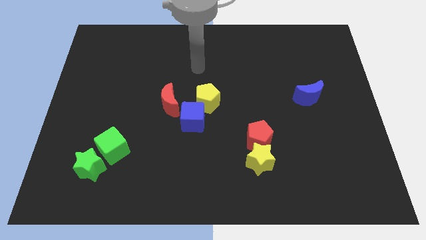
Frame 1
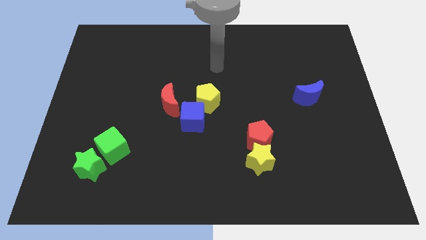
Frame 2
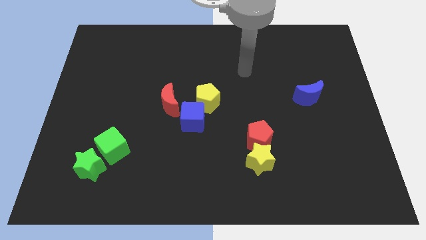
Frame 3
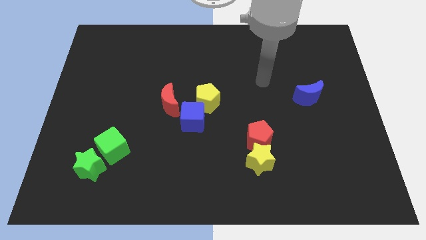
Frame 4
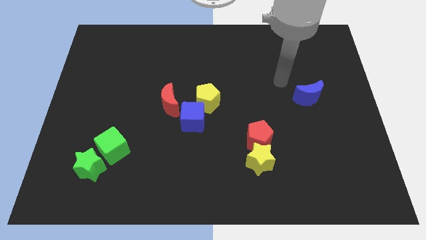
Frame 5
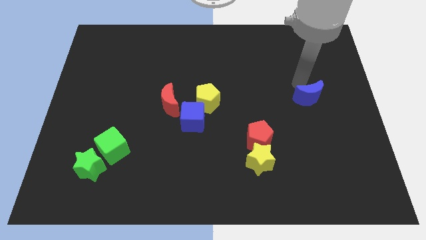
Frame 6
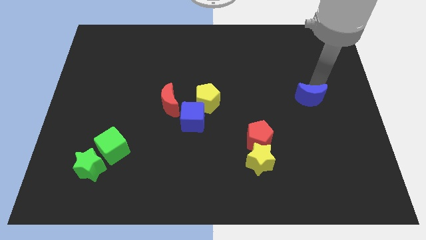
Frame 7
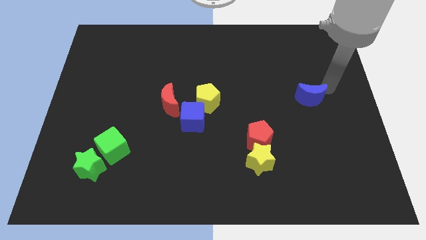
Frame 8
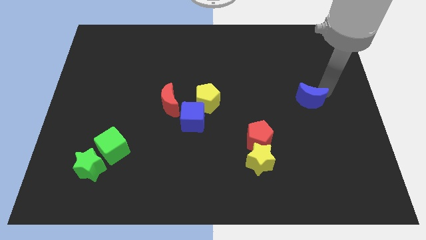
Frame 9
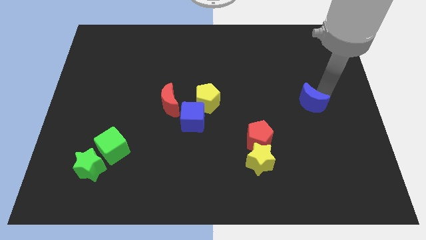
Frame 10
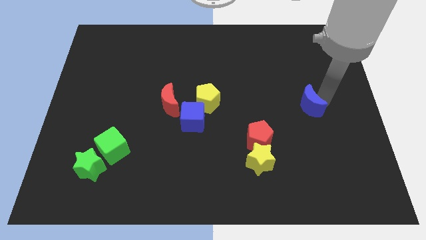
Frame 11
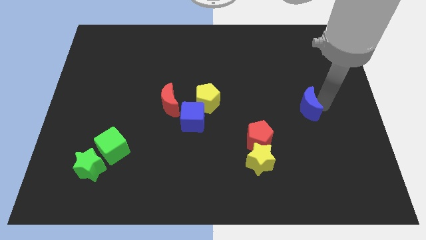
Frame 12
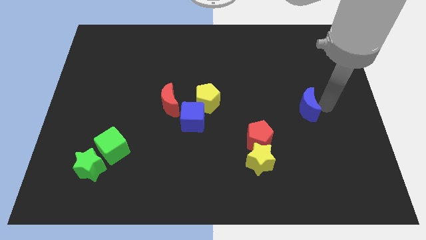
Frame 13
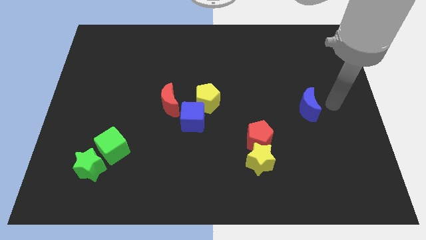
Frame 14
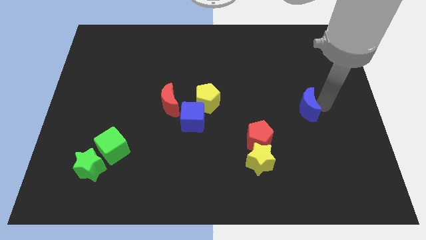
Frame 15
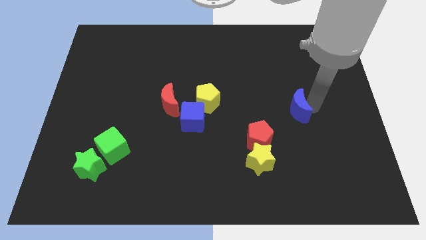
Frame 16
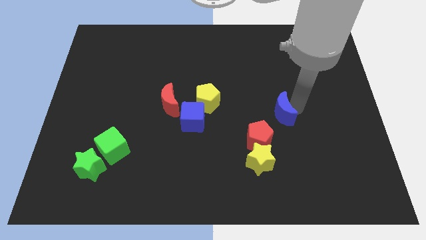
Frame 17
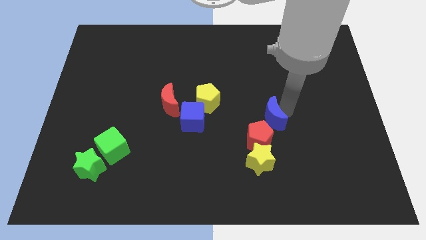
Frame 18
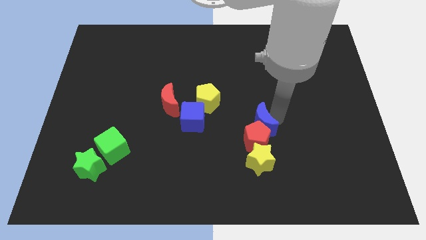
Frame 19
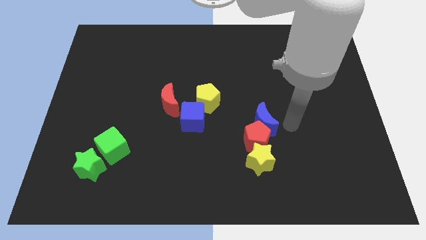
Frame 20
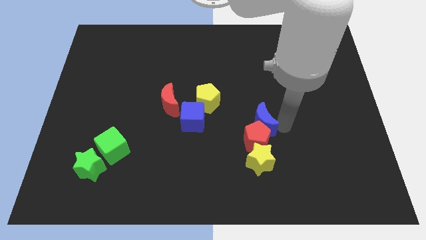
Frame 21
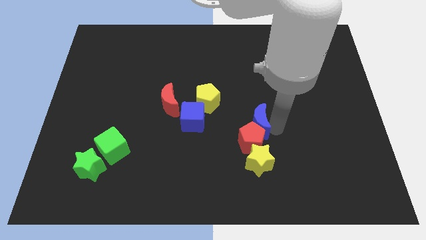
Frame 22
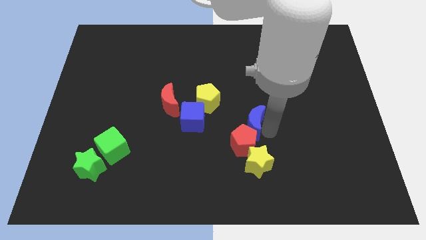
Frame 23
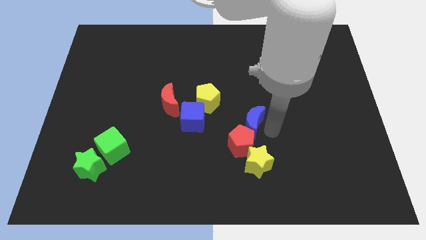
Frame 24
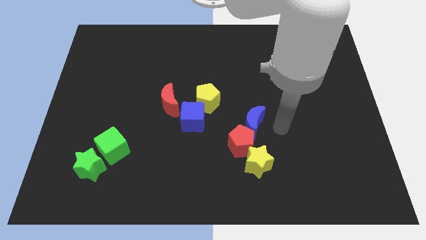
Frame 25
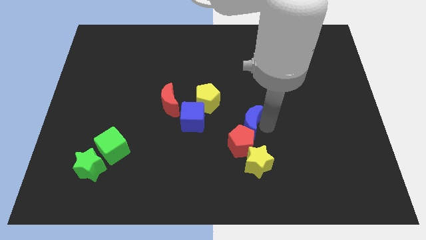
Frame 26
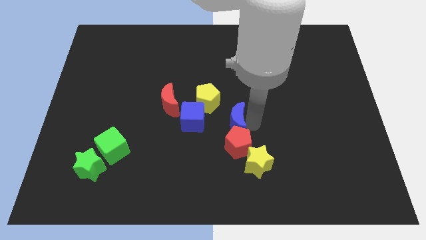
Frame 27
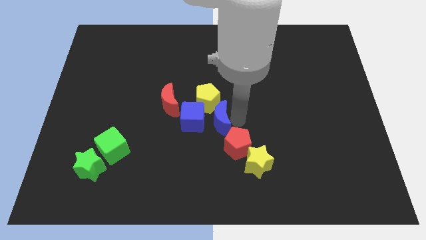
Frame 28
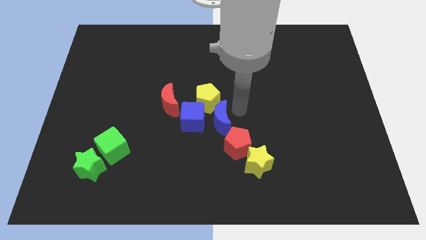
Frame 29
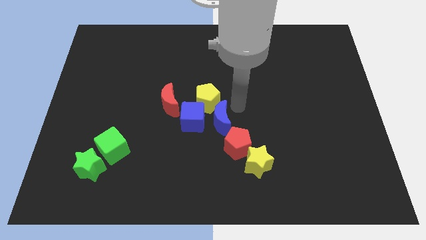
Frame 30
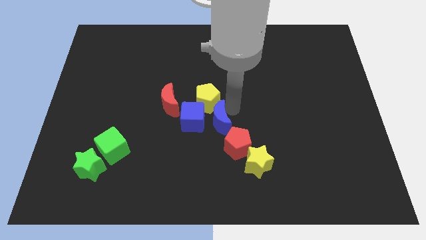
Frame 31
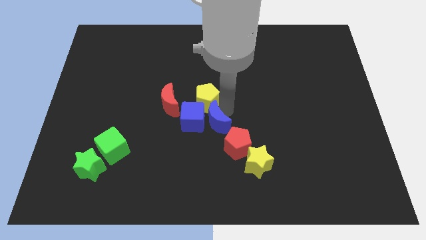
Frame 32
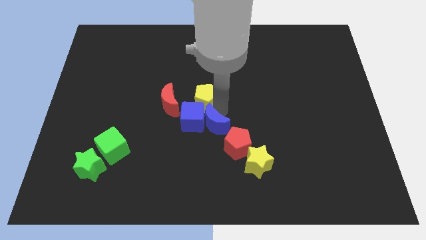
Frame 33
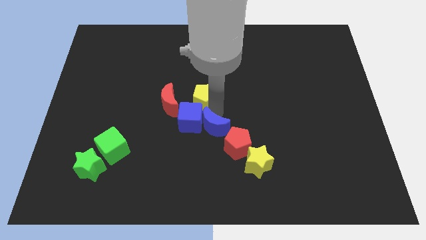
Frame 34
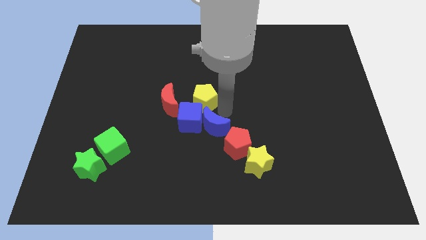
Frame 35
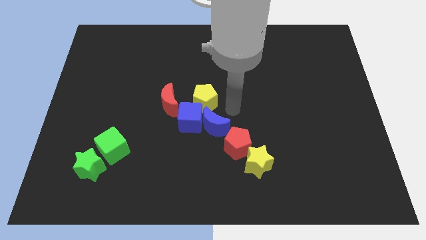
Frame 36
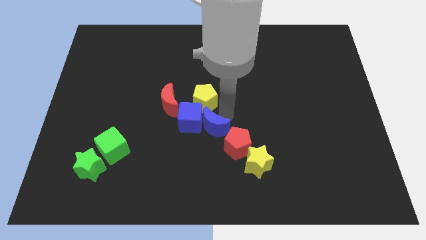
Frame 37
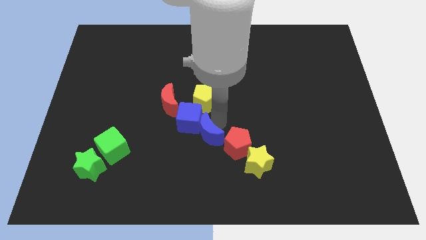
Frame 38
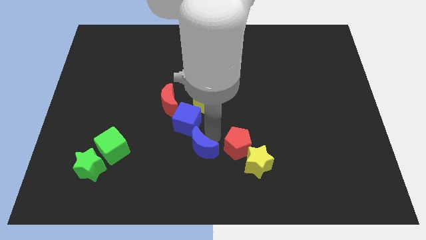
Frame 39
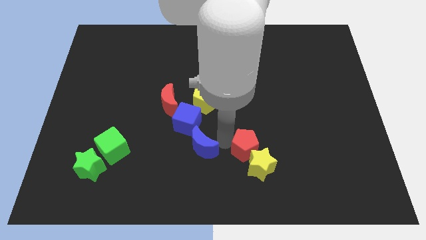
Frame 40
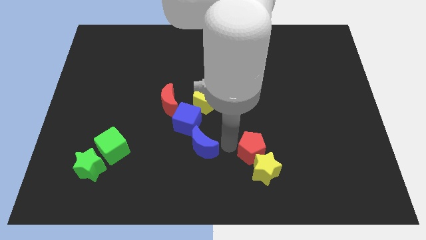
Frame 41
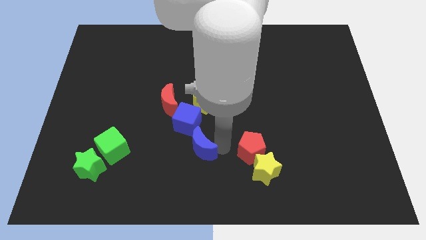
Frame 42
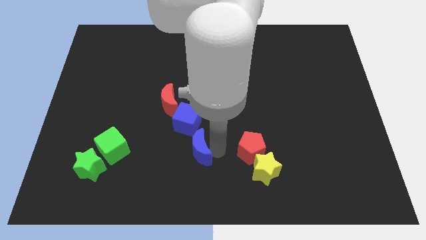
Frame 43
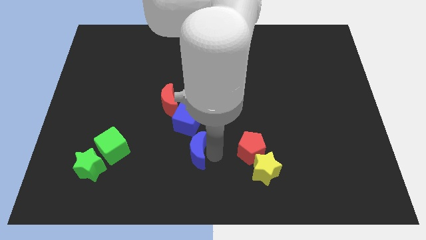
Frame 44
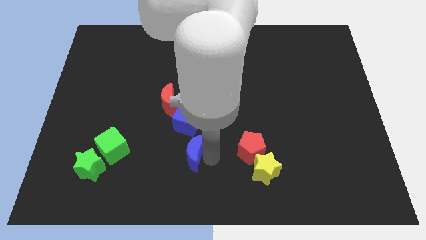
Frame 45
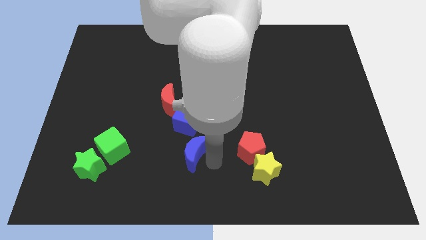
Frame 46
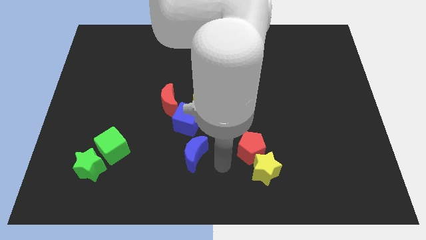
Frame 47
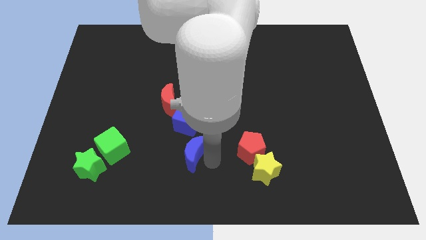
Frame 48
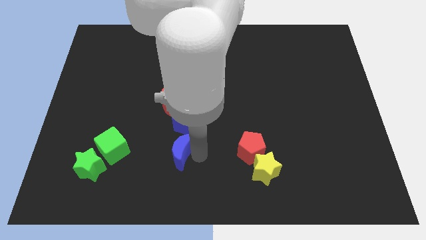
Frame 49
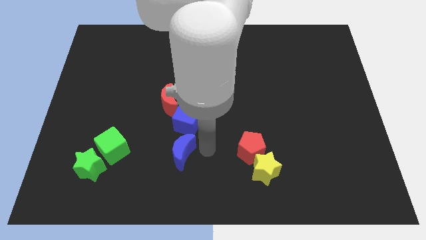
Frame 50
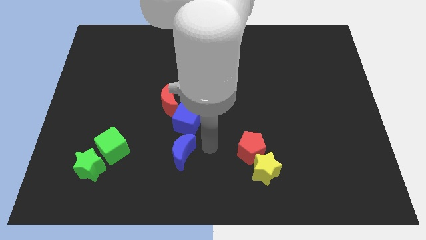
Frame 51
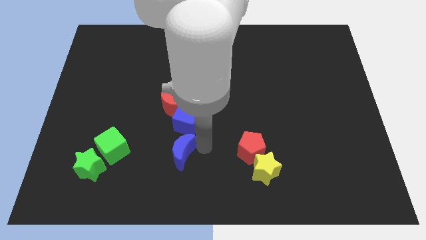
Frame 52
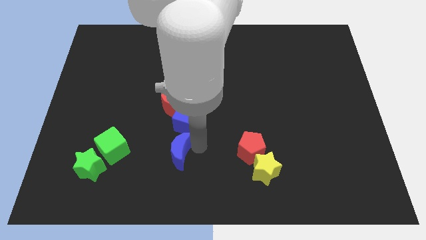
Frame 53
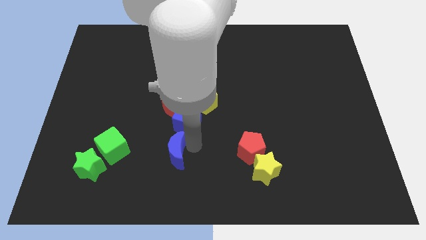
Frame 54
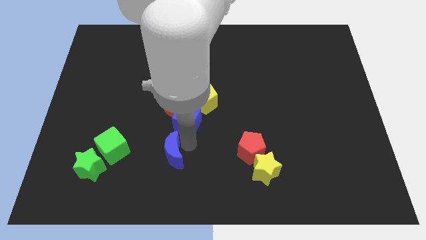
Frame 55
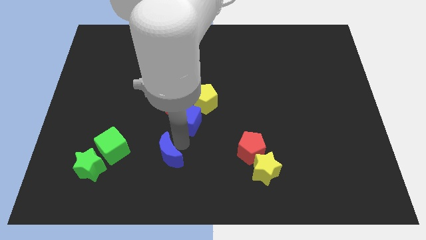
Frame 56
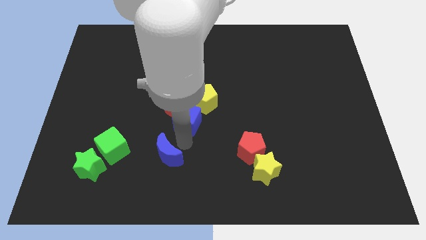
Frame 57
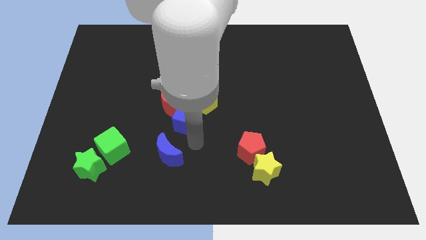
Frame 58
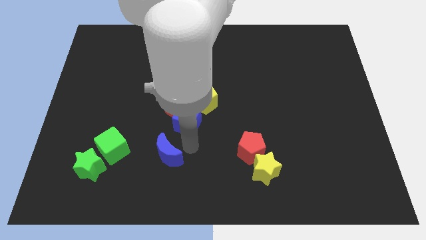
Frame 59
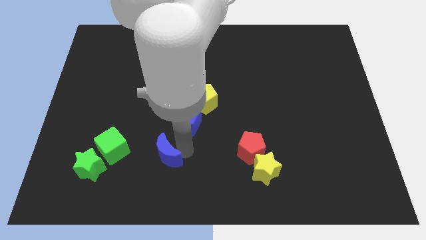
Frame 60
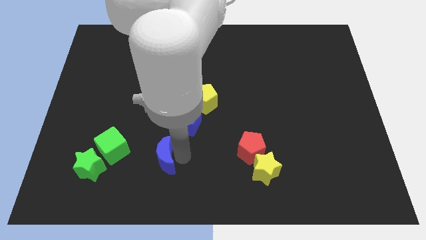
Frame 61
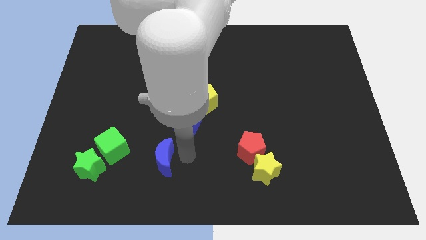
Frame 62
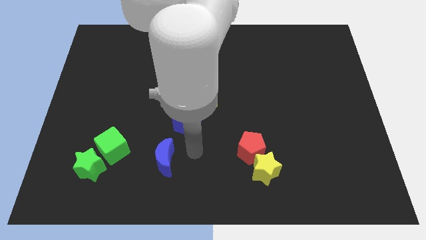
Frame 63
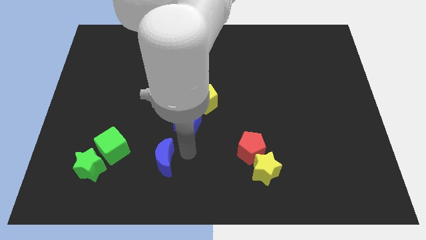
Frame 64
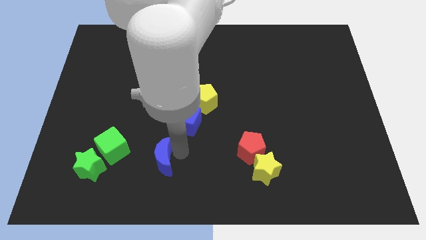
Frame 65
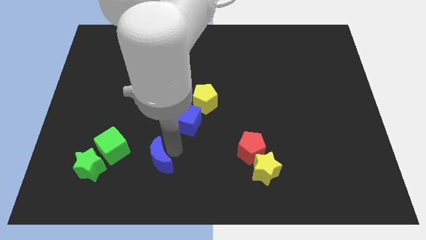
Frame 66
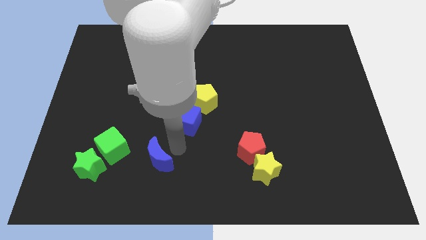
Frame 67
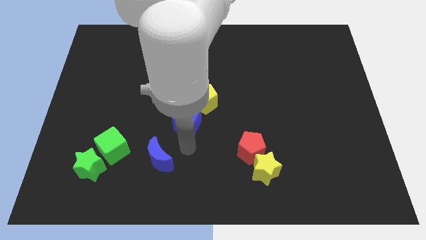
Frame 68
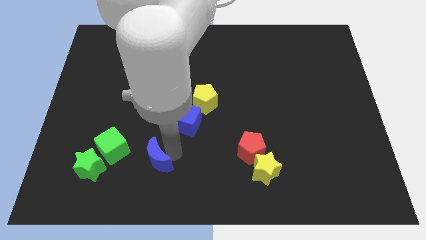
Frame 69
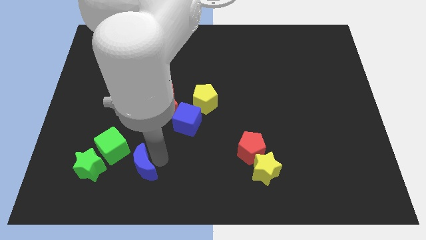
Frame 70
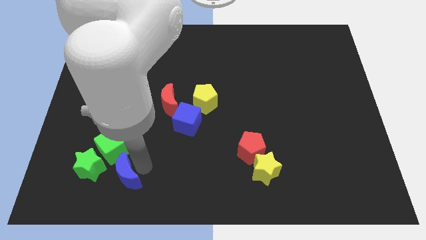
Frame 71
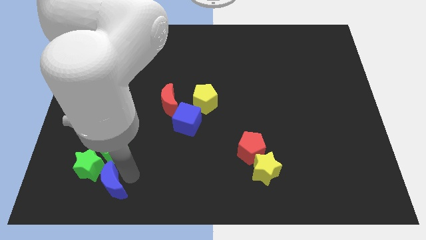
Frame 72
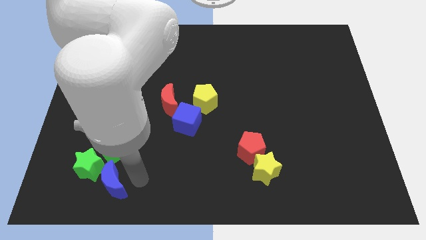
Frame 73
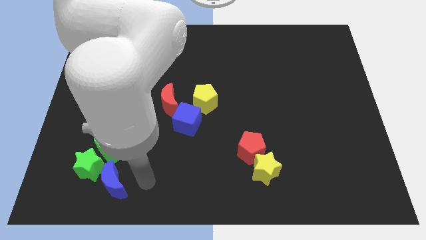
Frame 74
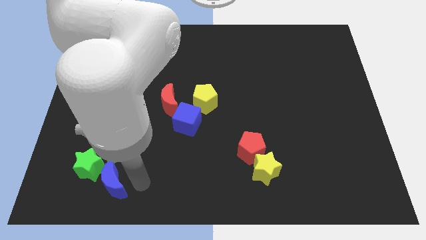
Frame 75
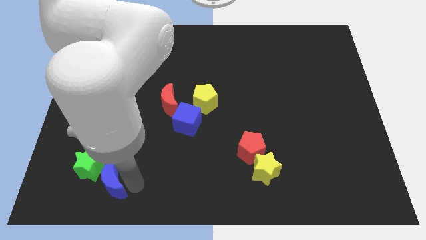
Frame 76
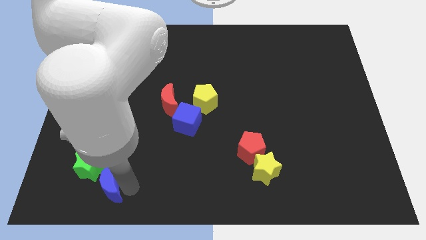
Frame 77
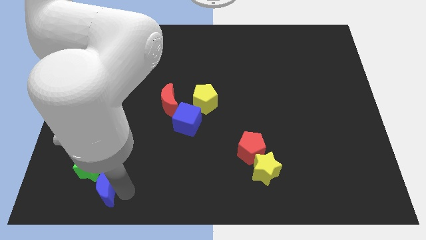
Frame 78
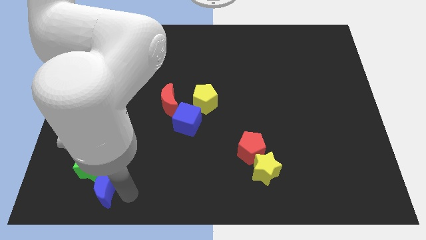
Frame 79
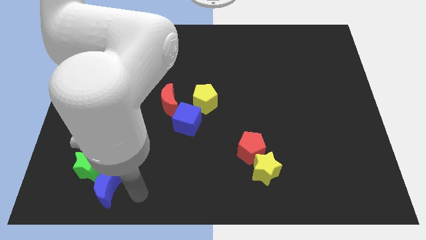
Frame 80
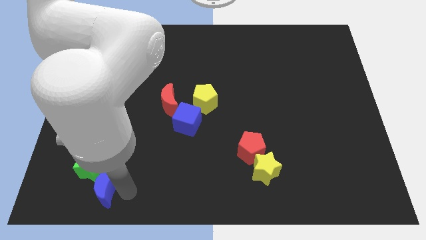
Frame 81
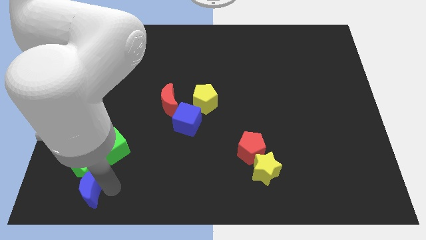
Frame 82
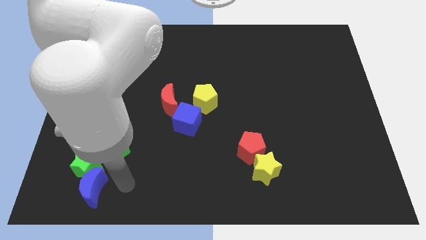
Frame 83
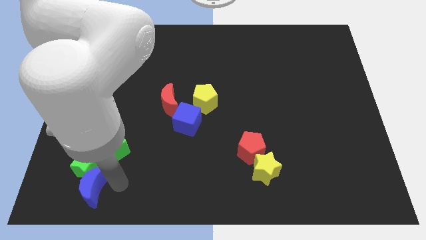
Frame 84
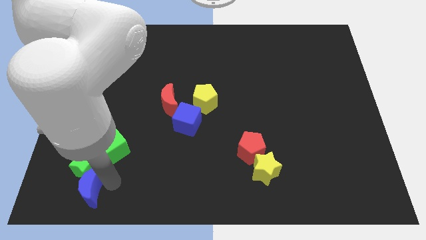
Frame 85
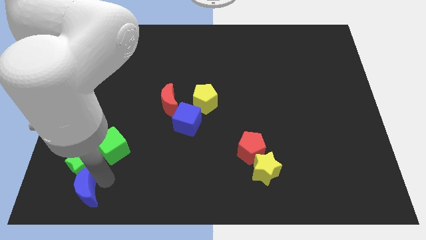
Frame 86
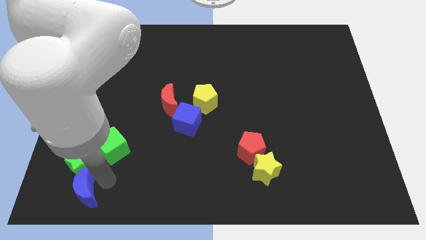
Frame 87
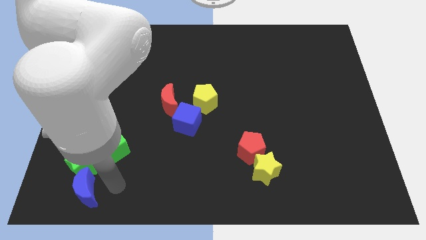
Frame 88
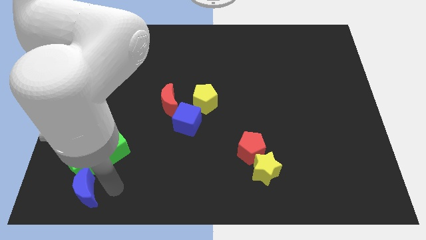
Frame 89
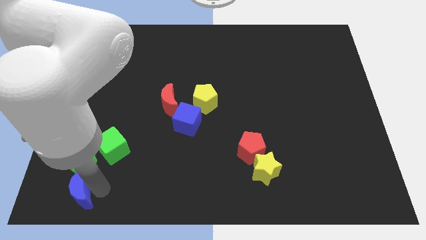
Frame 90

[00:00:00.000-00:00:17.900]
put the blue moon to the bottom left
